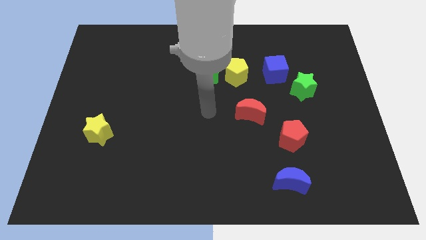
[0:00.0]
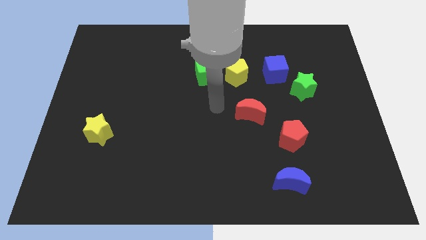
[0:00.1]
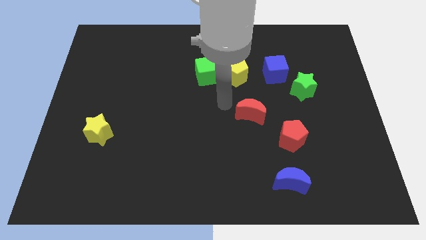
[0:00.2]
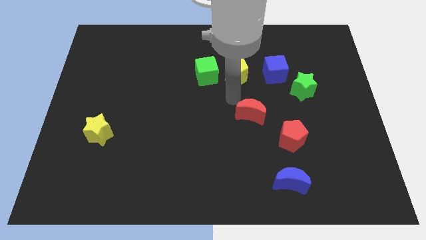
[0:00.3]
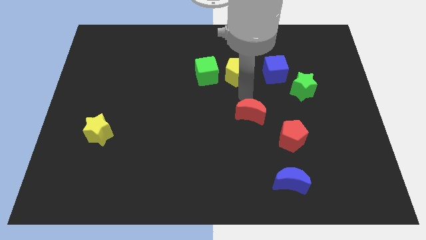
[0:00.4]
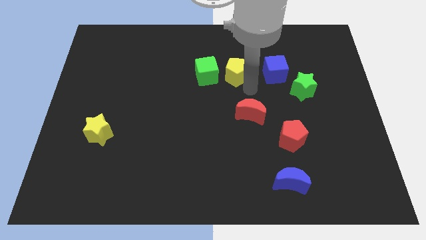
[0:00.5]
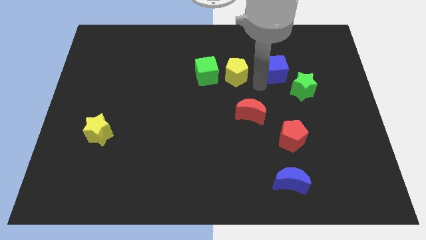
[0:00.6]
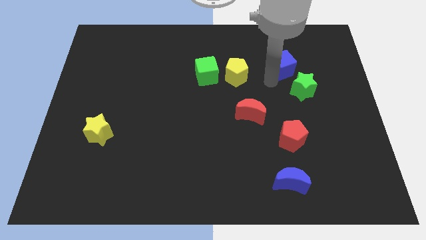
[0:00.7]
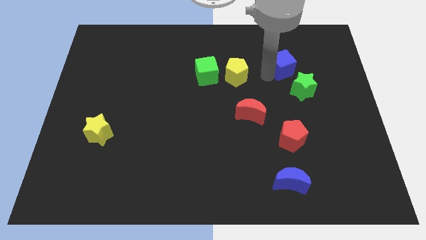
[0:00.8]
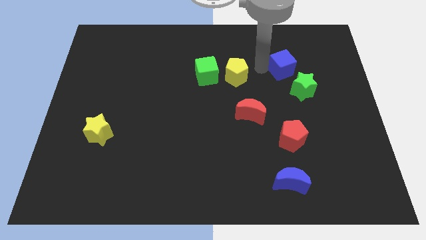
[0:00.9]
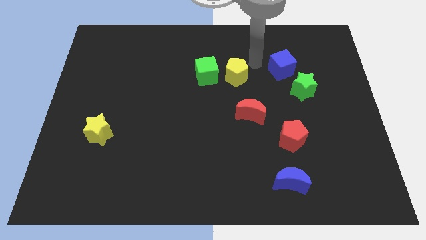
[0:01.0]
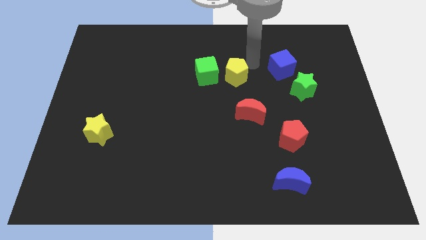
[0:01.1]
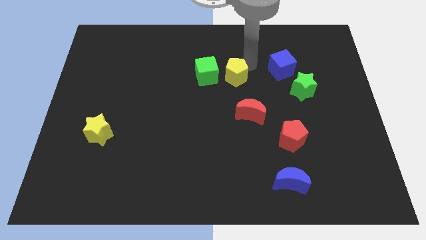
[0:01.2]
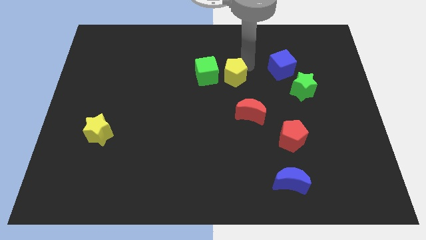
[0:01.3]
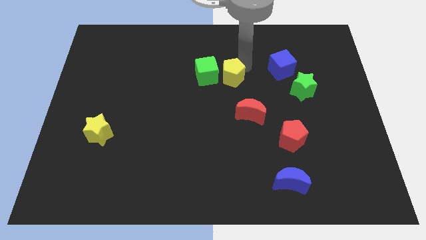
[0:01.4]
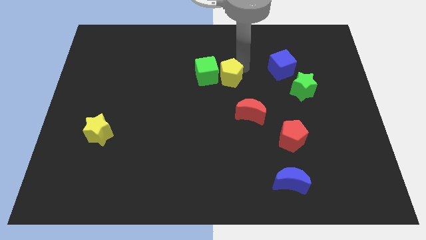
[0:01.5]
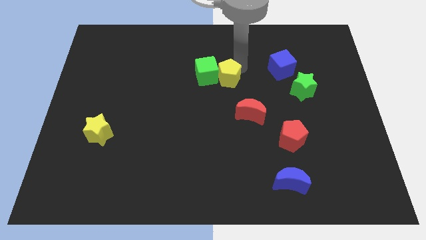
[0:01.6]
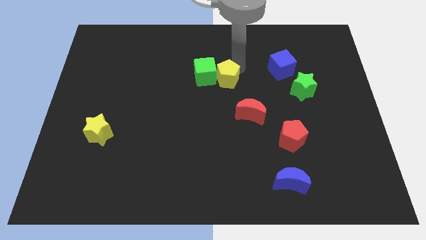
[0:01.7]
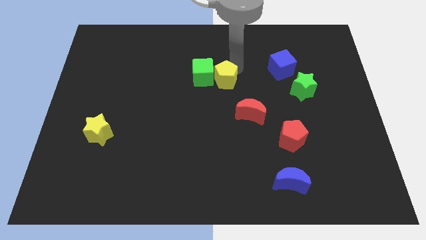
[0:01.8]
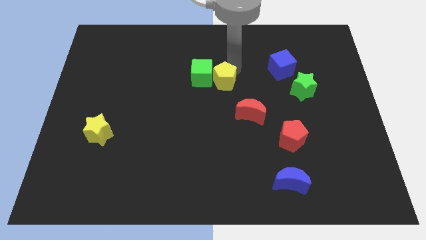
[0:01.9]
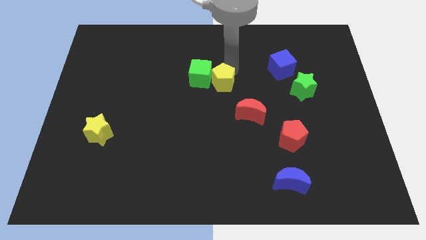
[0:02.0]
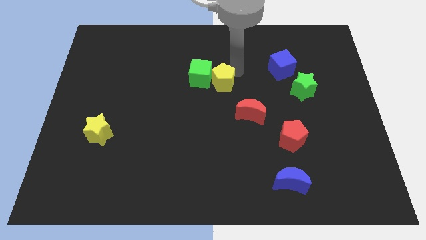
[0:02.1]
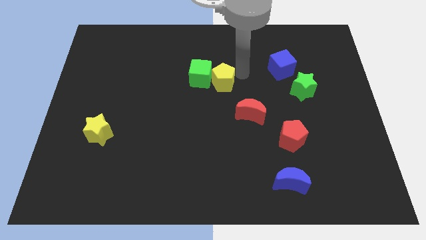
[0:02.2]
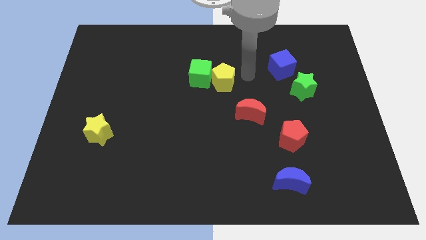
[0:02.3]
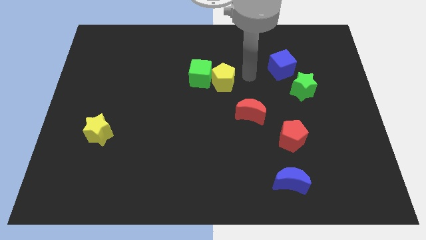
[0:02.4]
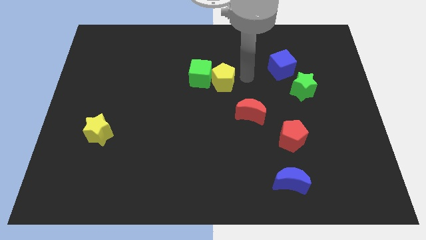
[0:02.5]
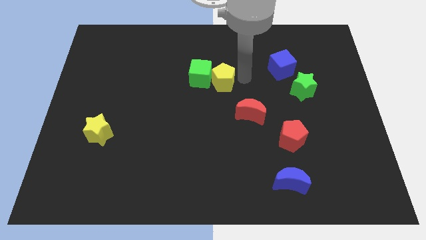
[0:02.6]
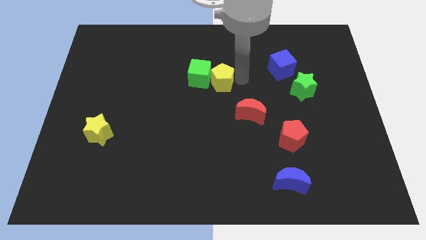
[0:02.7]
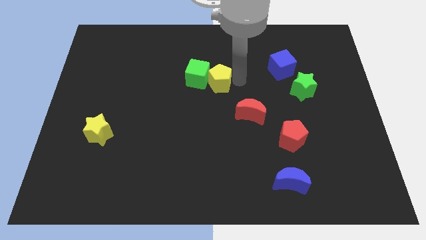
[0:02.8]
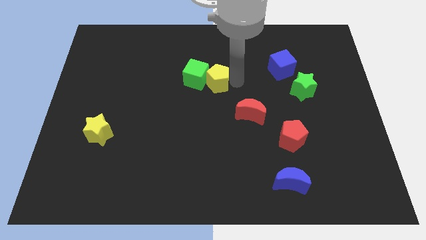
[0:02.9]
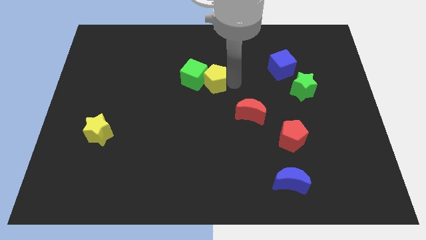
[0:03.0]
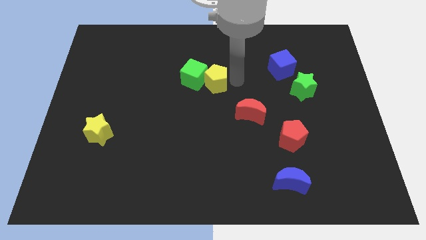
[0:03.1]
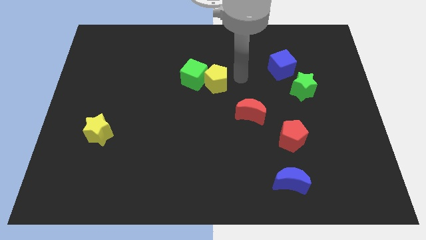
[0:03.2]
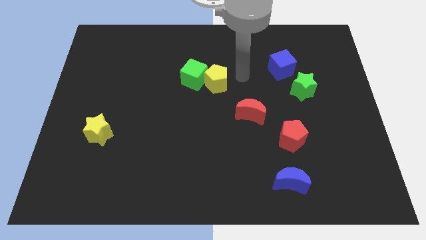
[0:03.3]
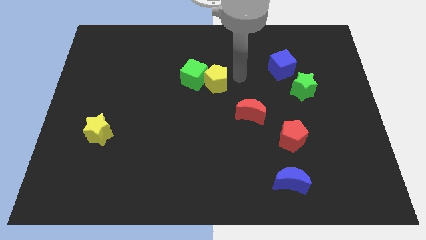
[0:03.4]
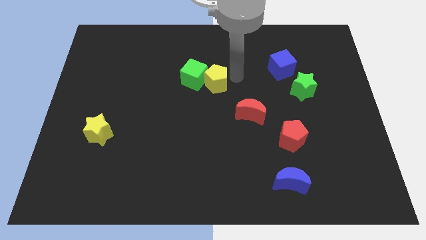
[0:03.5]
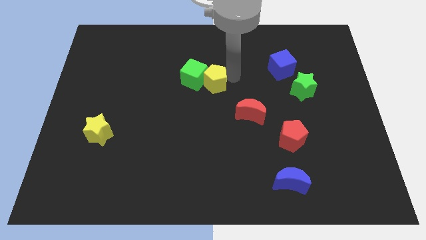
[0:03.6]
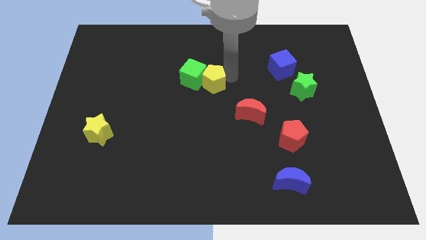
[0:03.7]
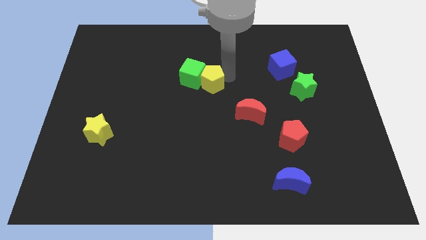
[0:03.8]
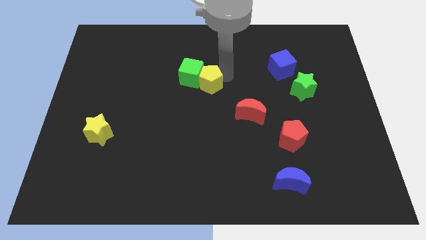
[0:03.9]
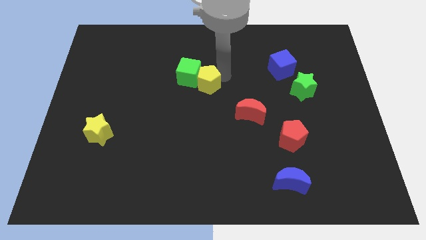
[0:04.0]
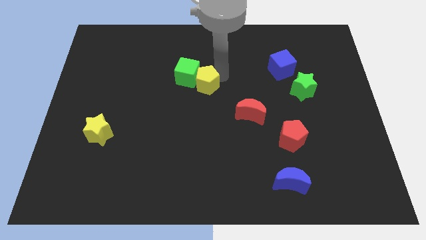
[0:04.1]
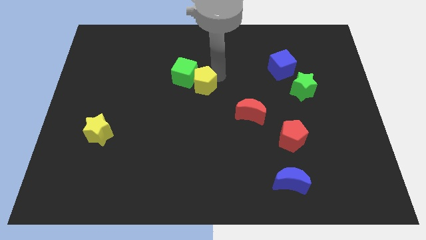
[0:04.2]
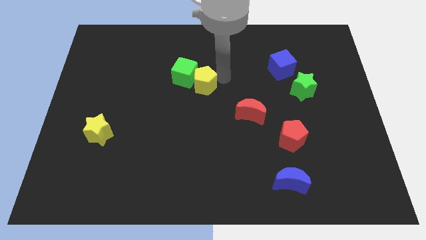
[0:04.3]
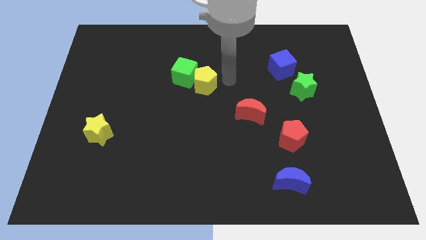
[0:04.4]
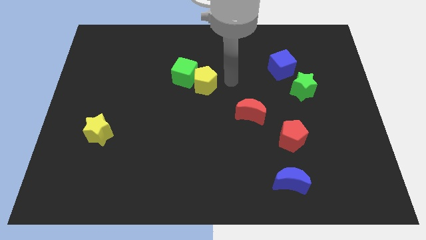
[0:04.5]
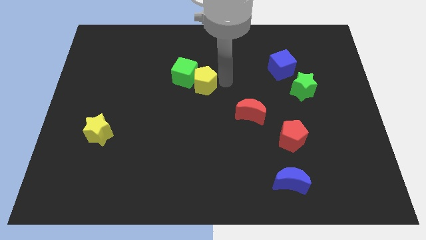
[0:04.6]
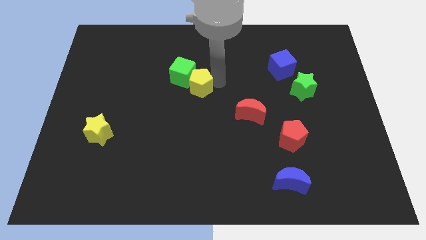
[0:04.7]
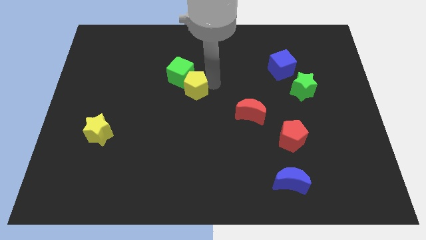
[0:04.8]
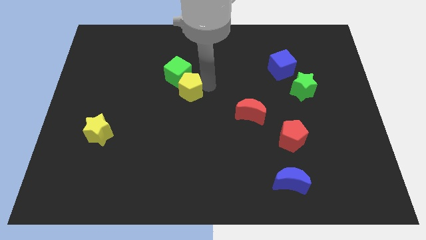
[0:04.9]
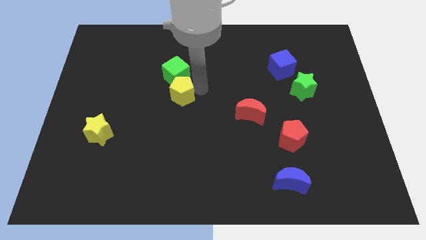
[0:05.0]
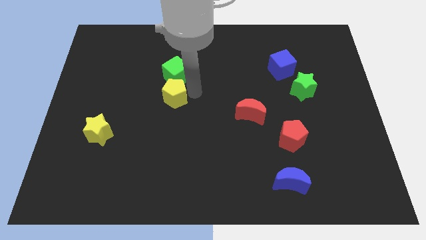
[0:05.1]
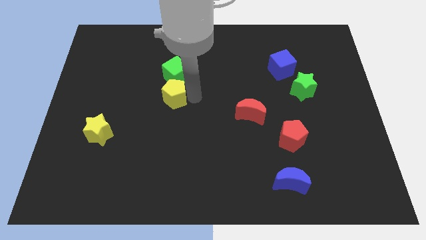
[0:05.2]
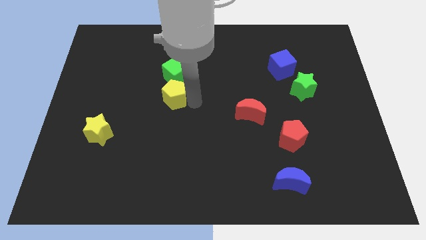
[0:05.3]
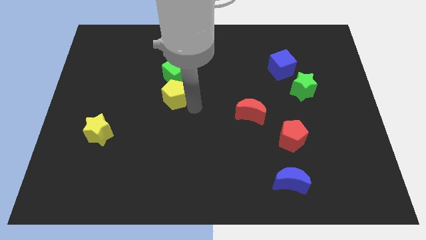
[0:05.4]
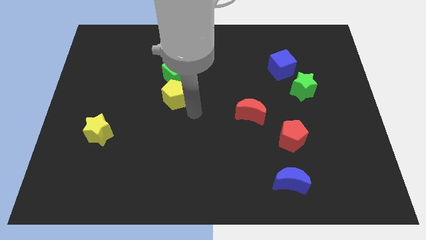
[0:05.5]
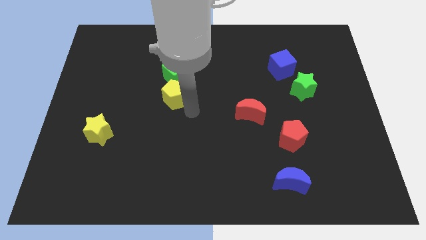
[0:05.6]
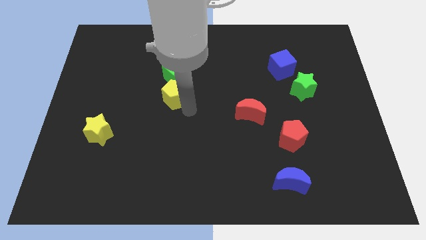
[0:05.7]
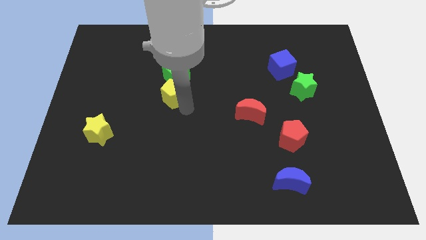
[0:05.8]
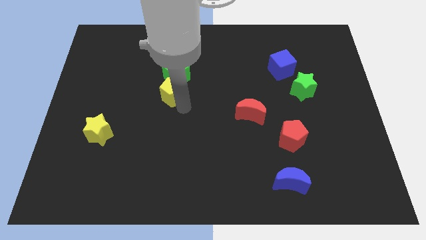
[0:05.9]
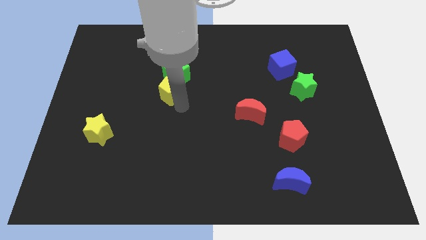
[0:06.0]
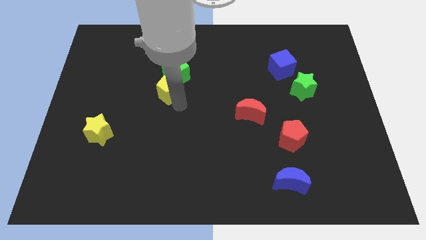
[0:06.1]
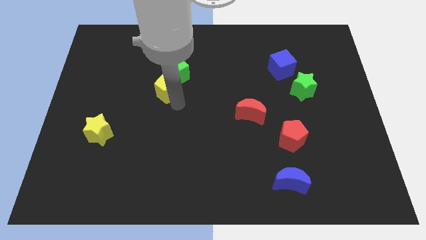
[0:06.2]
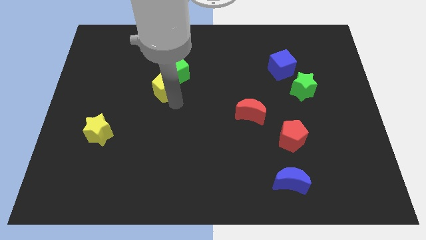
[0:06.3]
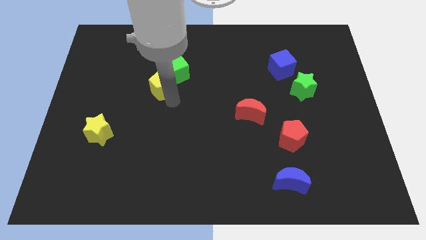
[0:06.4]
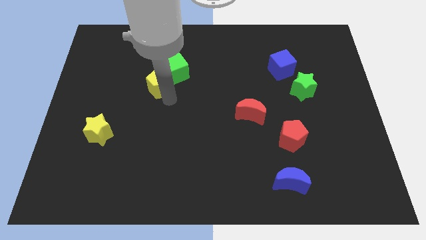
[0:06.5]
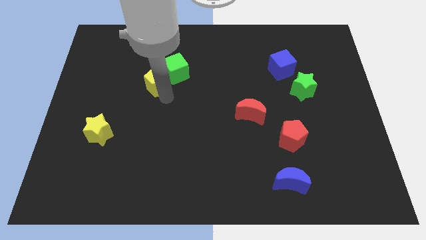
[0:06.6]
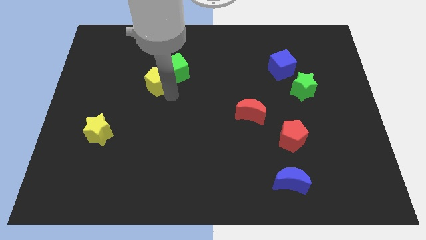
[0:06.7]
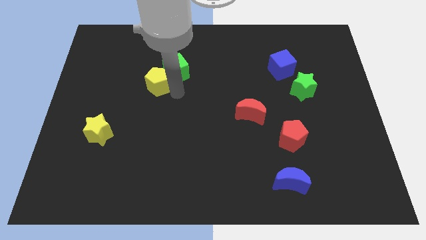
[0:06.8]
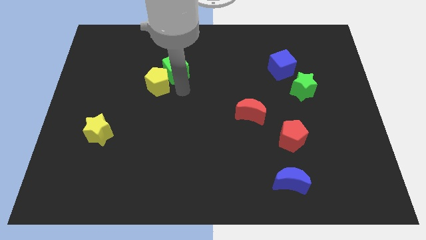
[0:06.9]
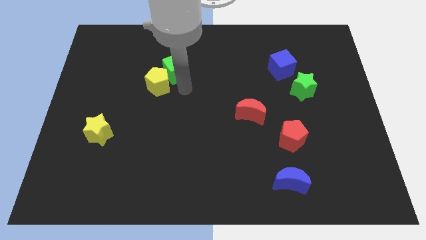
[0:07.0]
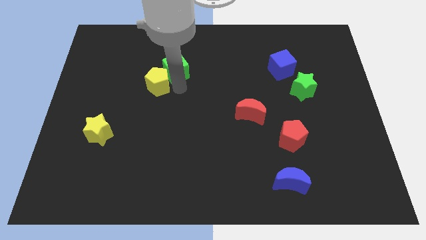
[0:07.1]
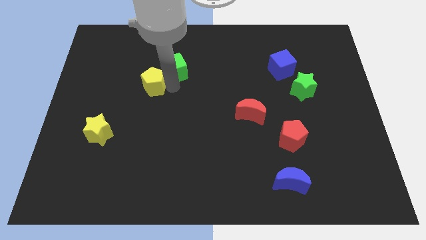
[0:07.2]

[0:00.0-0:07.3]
slide the yellow pentagon left

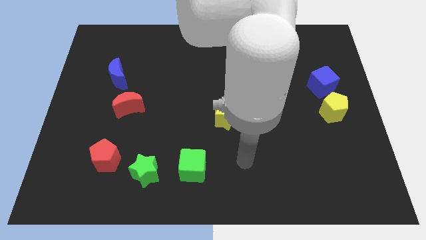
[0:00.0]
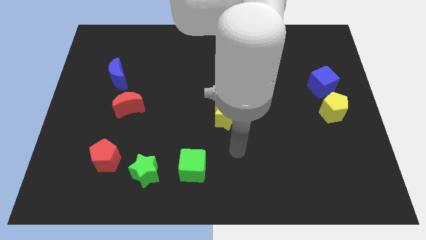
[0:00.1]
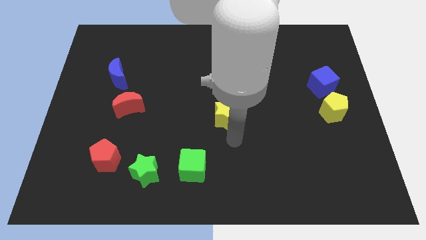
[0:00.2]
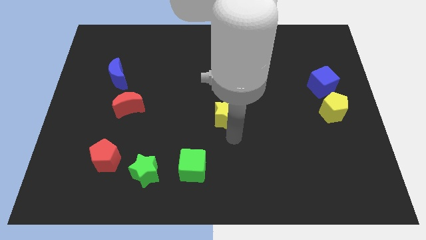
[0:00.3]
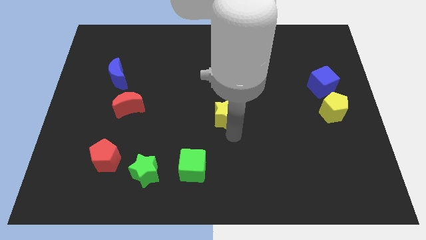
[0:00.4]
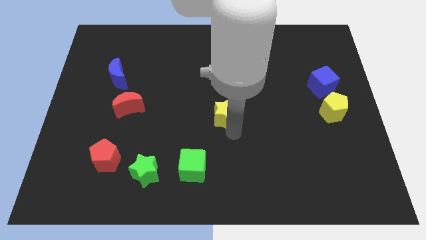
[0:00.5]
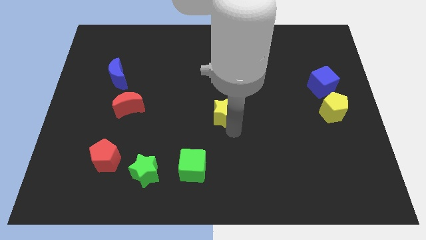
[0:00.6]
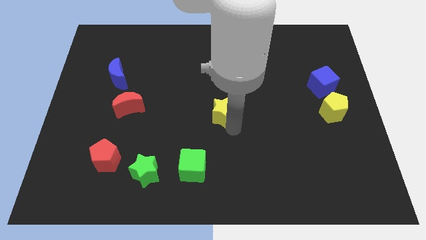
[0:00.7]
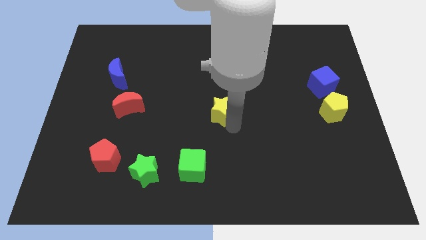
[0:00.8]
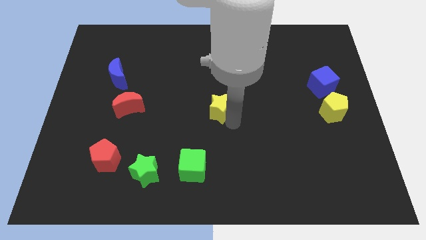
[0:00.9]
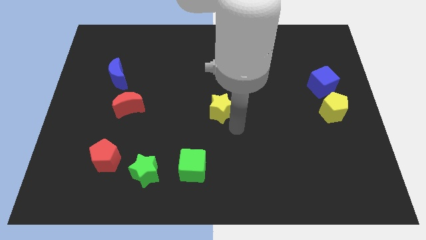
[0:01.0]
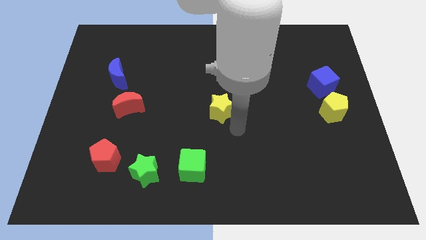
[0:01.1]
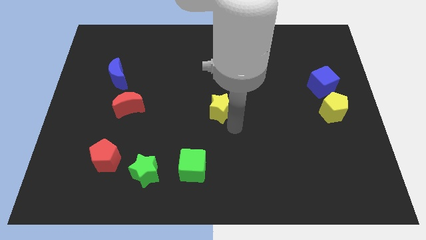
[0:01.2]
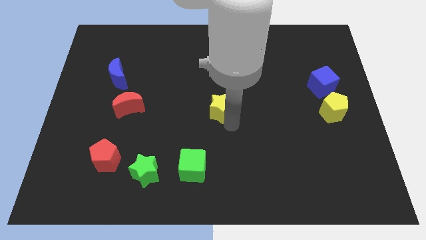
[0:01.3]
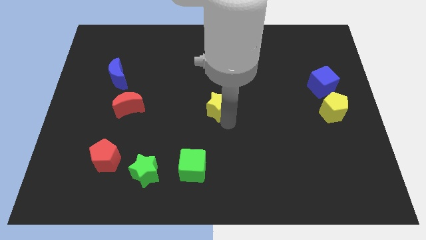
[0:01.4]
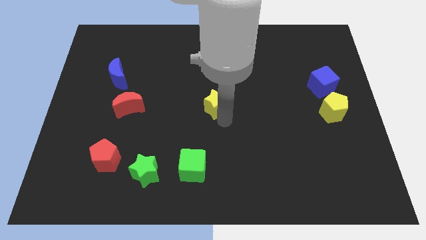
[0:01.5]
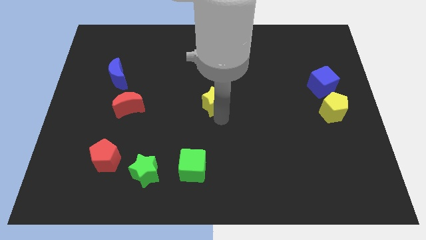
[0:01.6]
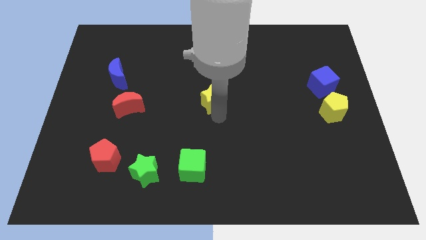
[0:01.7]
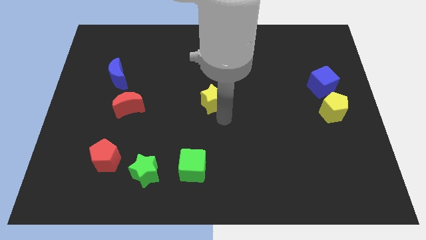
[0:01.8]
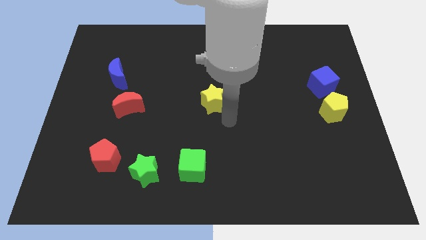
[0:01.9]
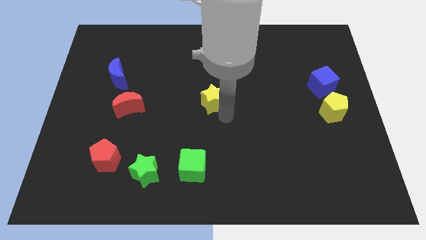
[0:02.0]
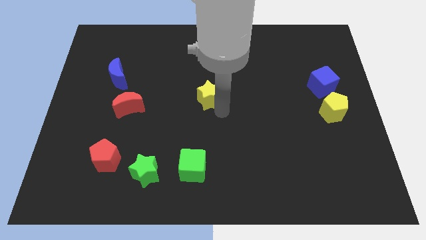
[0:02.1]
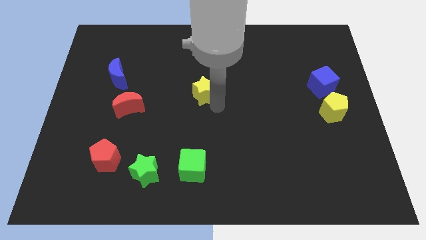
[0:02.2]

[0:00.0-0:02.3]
move the yellow star diagonally up and left slightly
